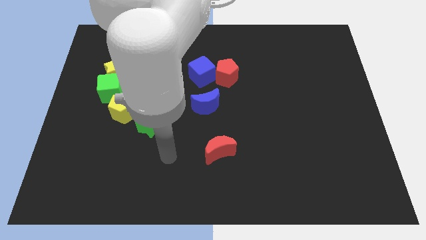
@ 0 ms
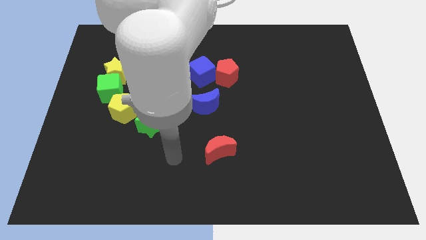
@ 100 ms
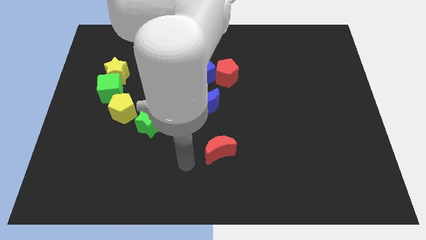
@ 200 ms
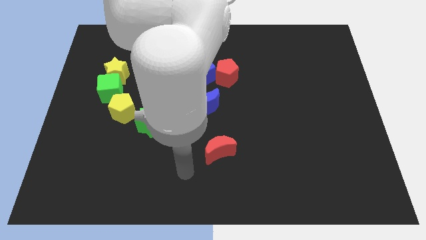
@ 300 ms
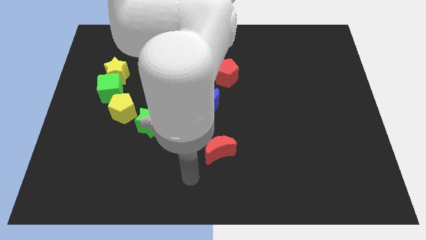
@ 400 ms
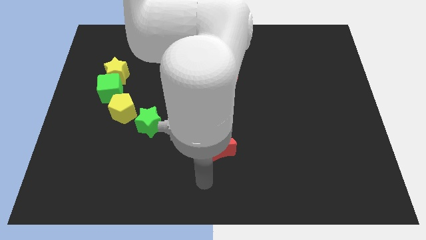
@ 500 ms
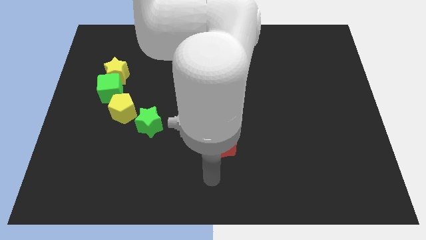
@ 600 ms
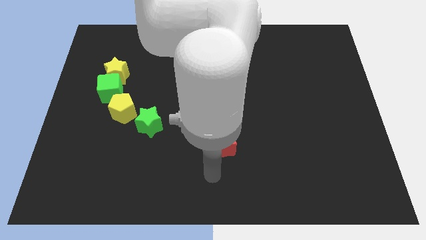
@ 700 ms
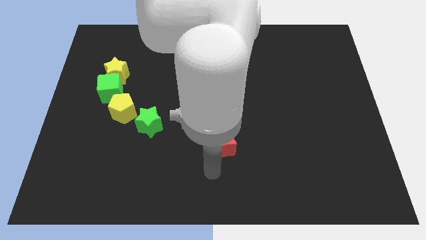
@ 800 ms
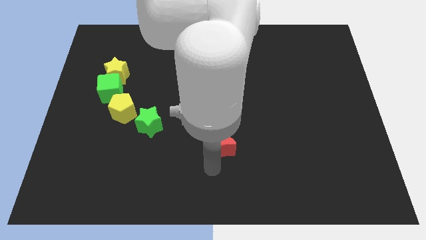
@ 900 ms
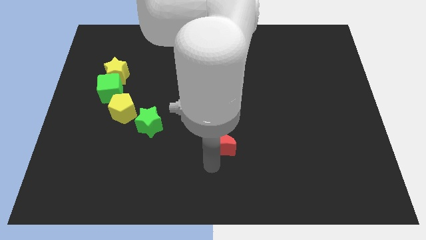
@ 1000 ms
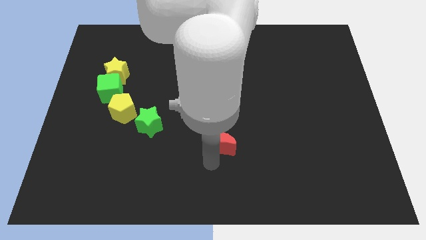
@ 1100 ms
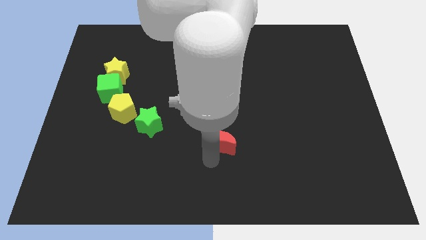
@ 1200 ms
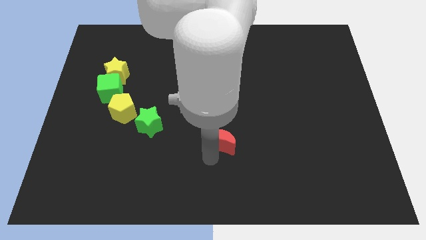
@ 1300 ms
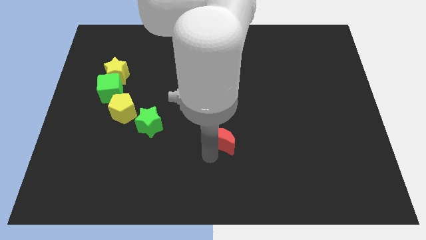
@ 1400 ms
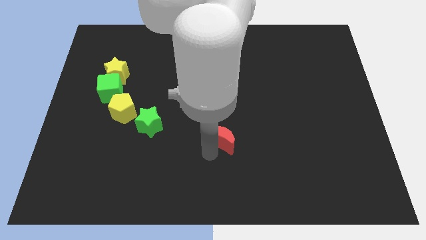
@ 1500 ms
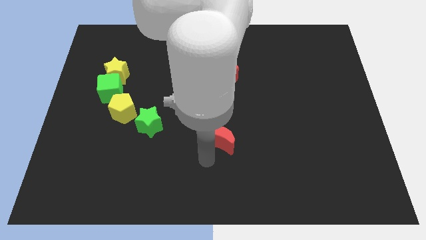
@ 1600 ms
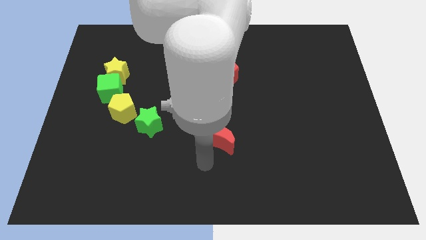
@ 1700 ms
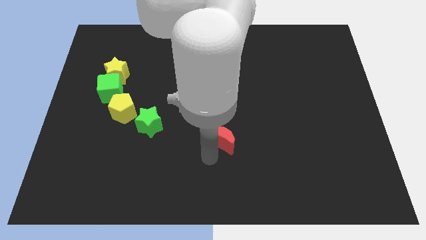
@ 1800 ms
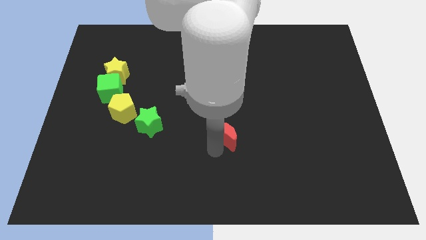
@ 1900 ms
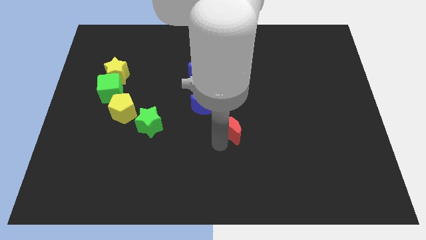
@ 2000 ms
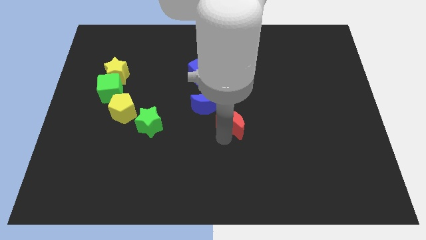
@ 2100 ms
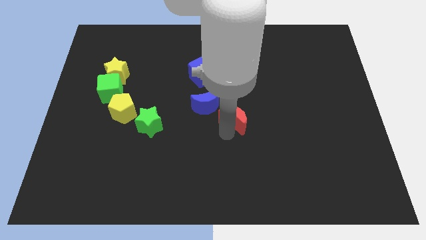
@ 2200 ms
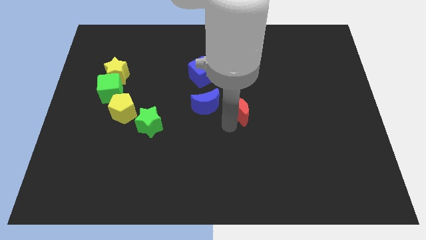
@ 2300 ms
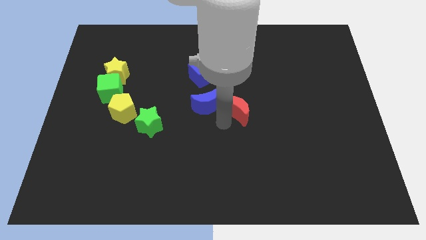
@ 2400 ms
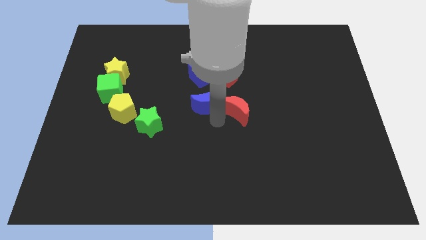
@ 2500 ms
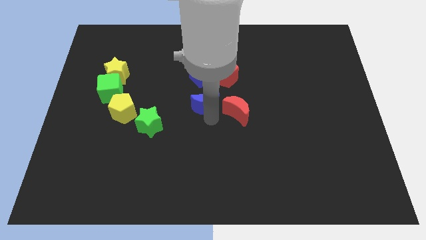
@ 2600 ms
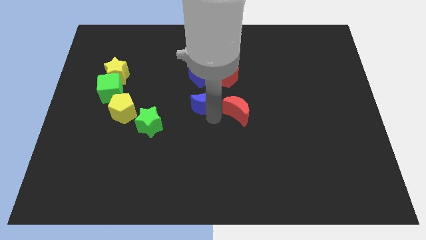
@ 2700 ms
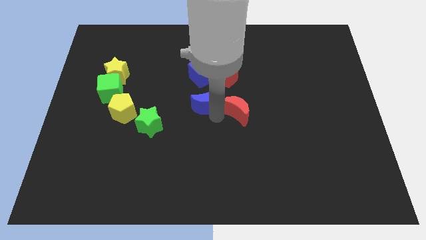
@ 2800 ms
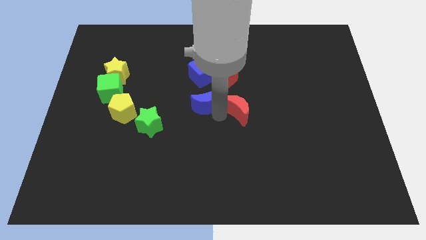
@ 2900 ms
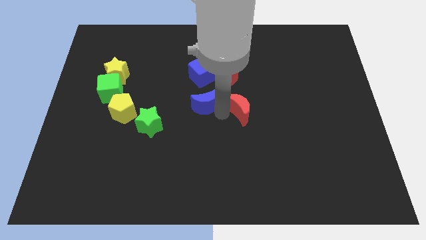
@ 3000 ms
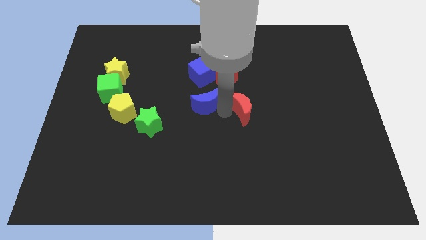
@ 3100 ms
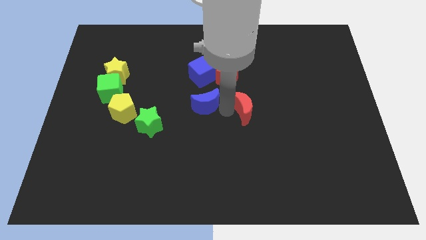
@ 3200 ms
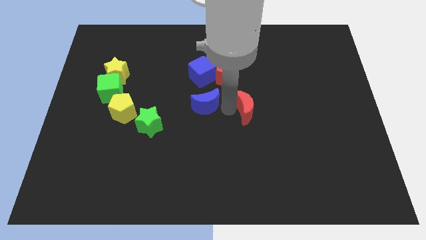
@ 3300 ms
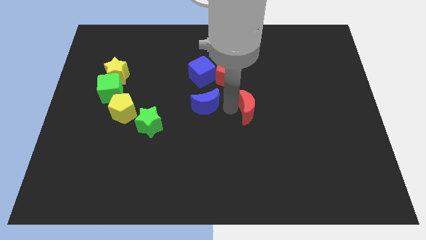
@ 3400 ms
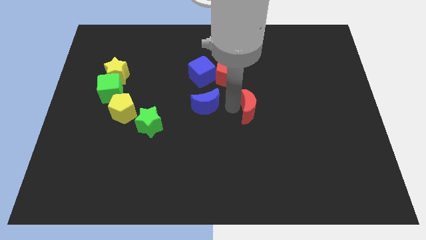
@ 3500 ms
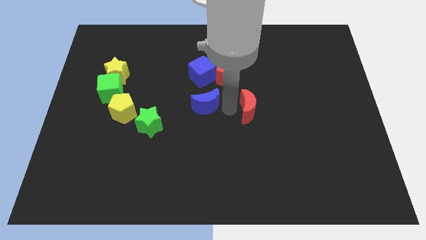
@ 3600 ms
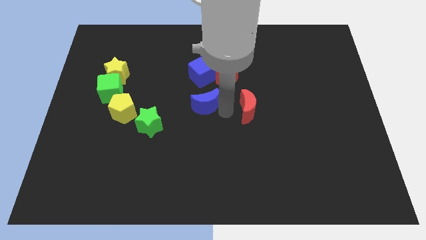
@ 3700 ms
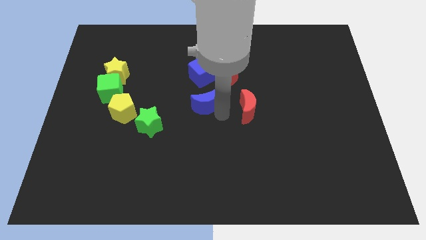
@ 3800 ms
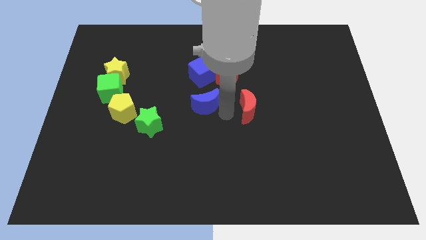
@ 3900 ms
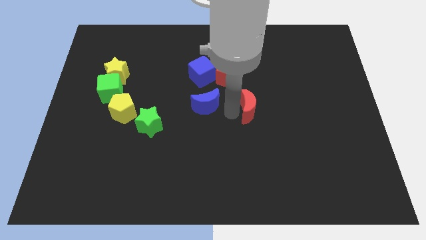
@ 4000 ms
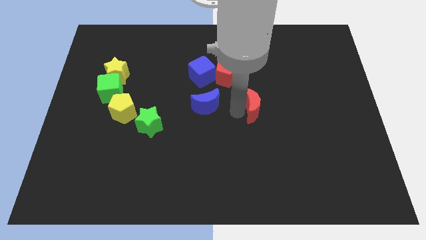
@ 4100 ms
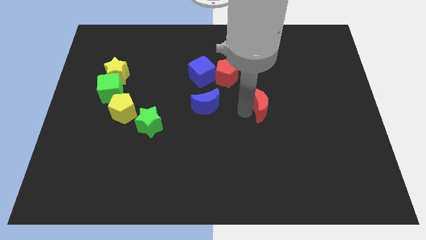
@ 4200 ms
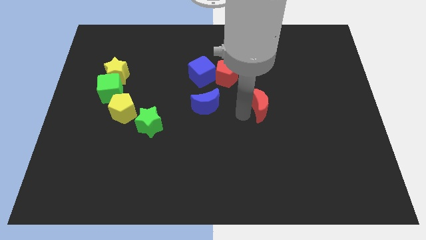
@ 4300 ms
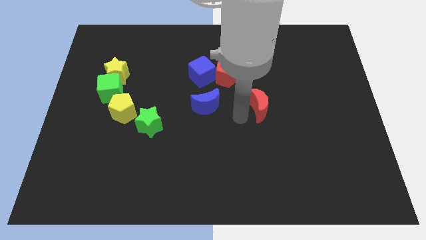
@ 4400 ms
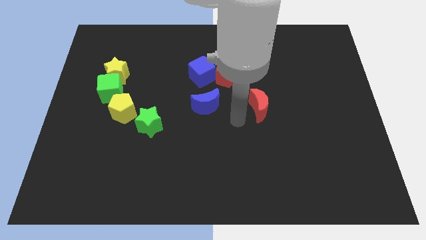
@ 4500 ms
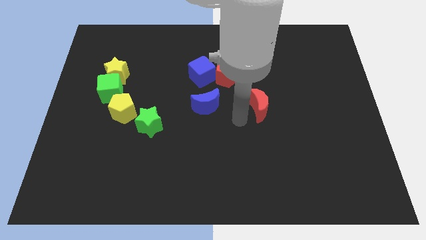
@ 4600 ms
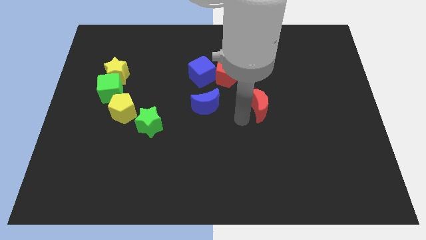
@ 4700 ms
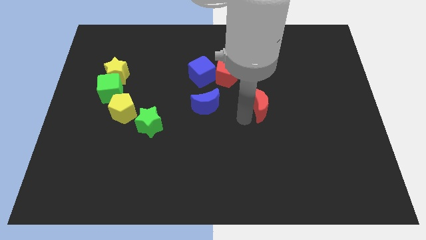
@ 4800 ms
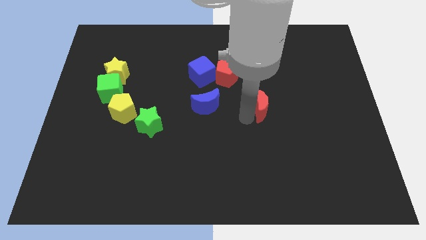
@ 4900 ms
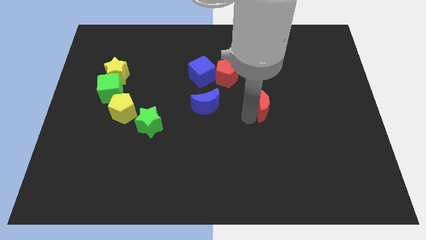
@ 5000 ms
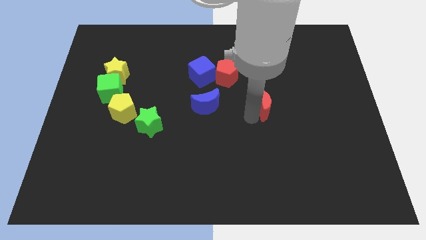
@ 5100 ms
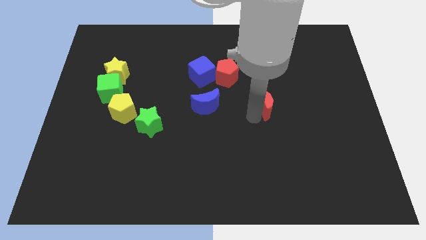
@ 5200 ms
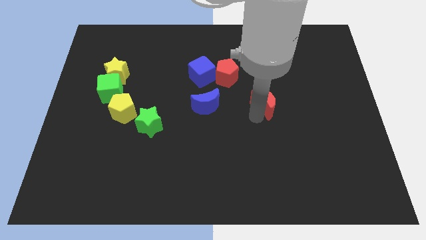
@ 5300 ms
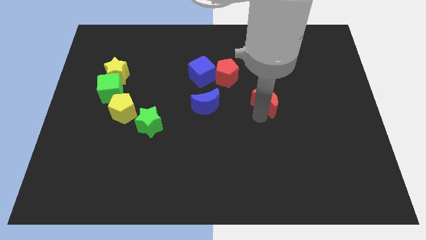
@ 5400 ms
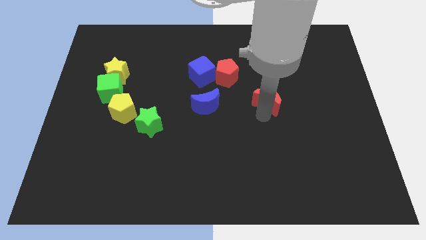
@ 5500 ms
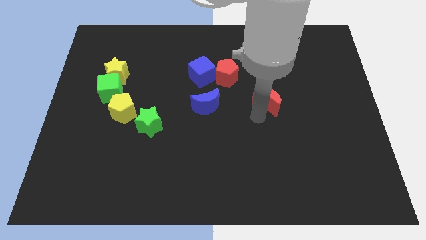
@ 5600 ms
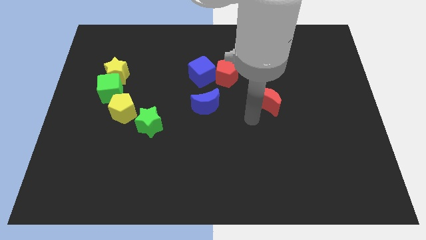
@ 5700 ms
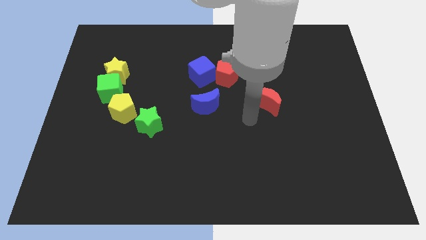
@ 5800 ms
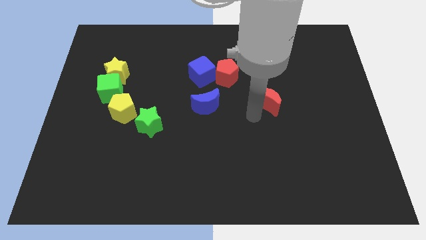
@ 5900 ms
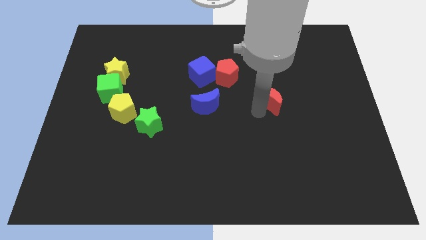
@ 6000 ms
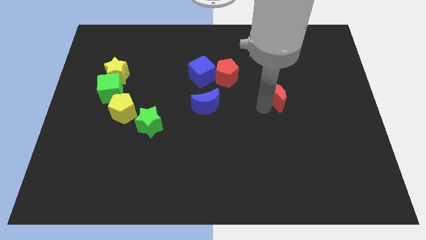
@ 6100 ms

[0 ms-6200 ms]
push the red moon diagonally upwards and to the right

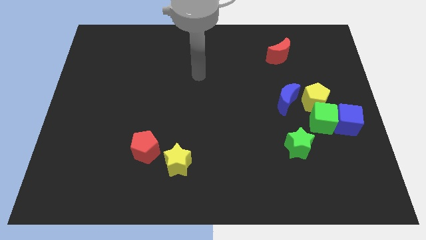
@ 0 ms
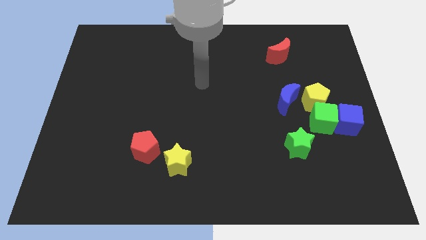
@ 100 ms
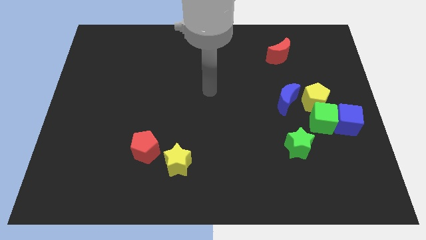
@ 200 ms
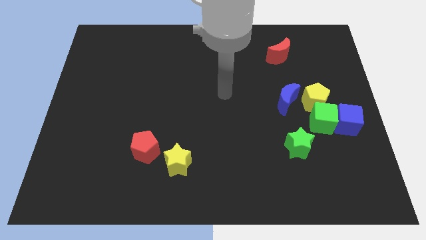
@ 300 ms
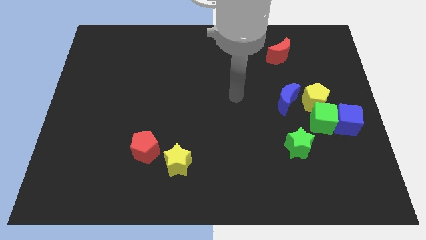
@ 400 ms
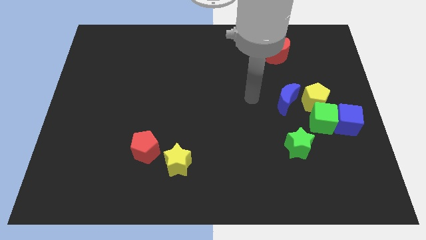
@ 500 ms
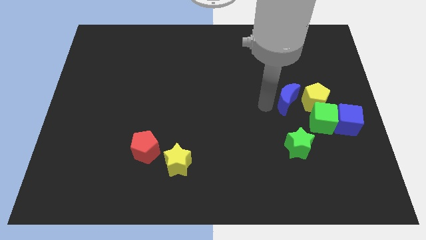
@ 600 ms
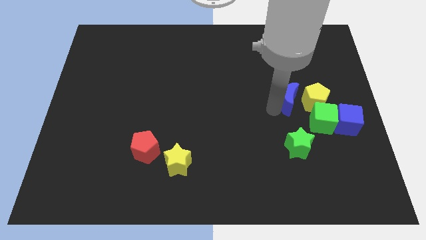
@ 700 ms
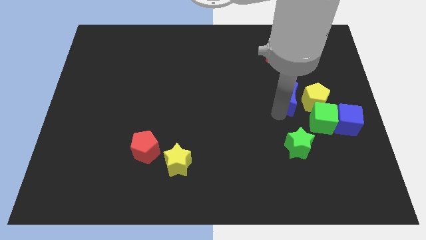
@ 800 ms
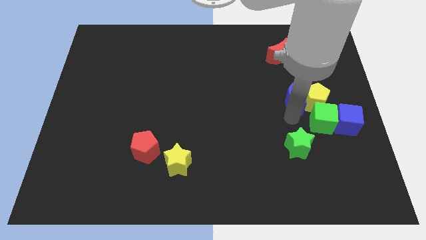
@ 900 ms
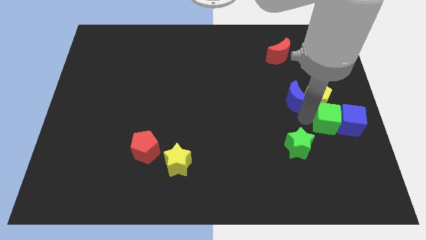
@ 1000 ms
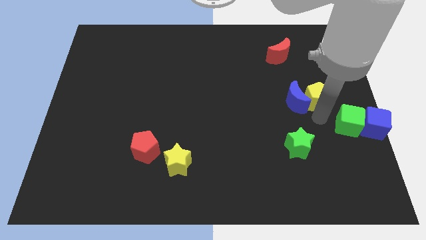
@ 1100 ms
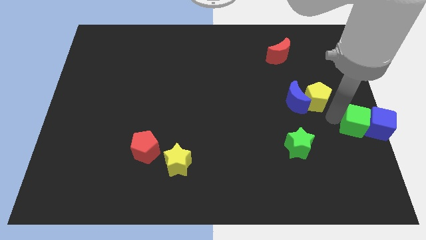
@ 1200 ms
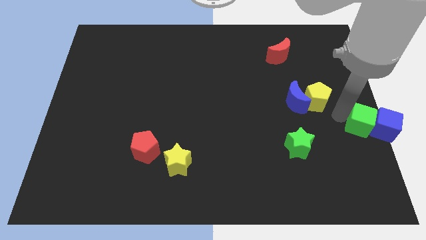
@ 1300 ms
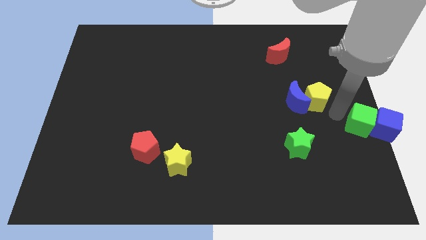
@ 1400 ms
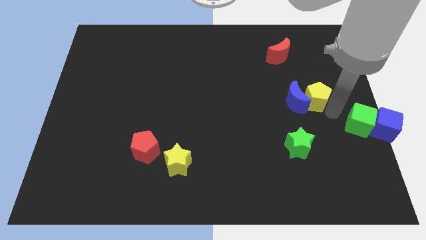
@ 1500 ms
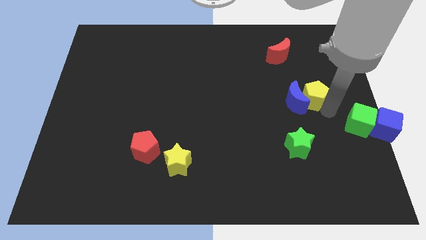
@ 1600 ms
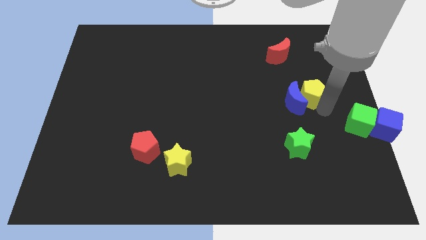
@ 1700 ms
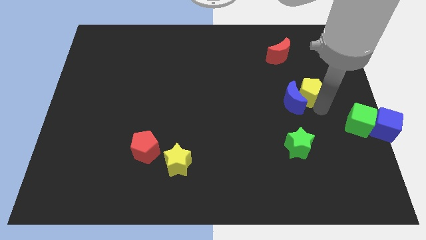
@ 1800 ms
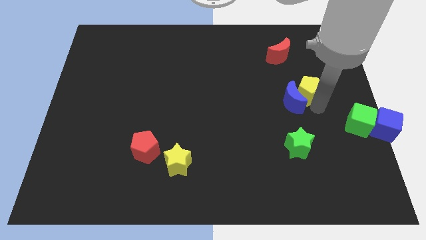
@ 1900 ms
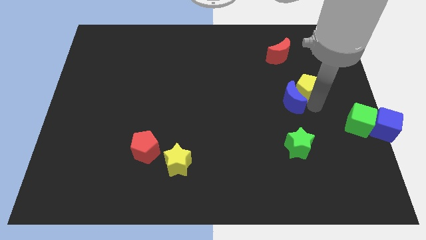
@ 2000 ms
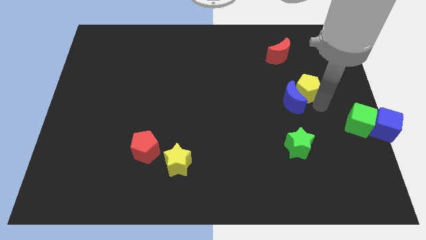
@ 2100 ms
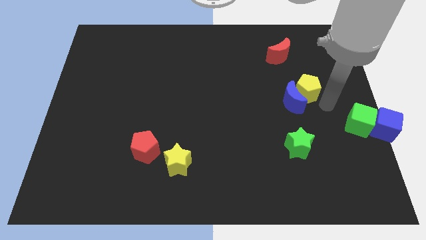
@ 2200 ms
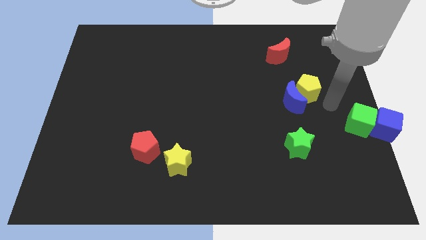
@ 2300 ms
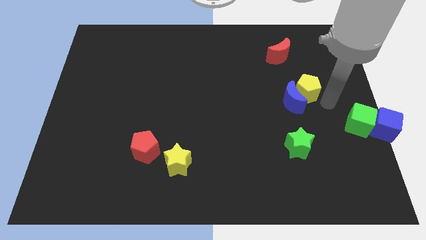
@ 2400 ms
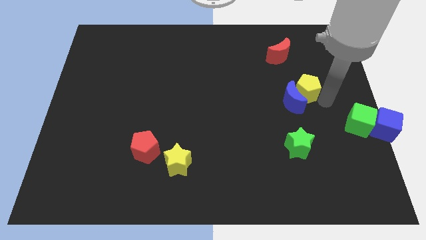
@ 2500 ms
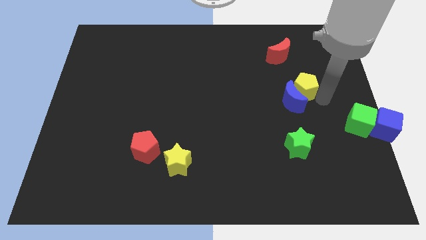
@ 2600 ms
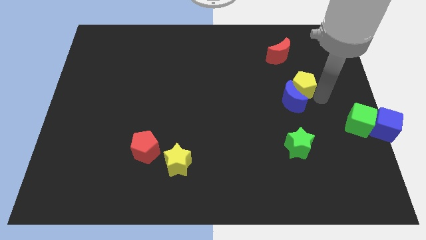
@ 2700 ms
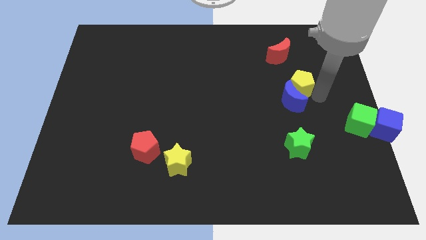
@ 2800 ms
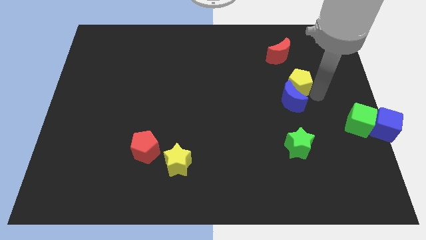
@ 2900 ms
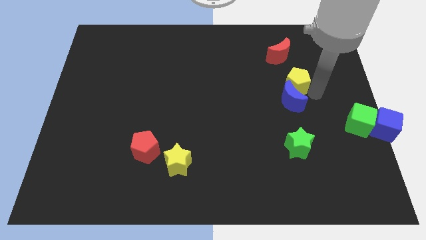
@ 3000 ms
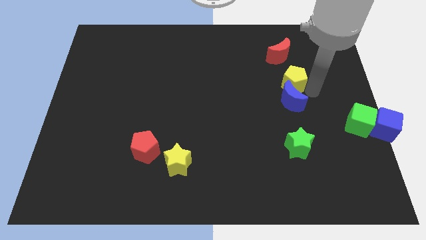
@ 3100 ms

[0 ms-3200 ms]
move the yellow pentagon up and left a little bit
